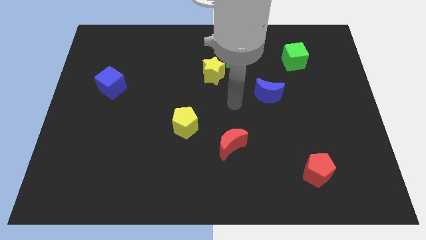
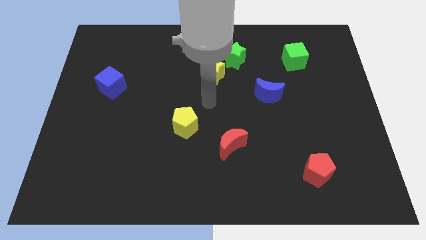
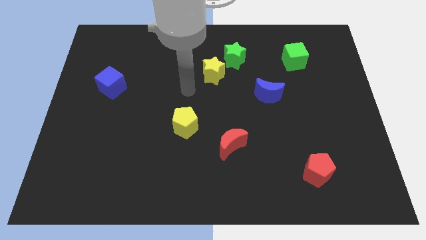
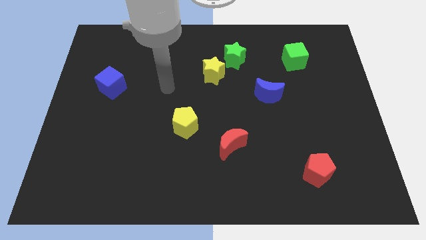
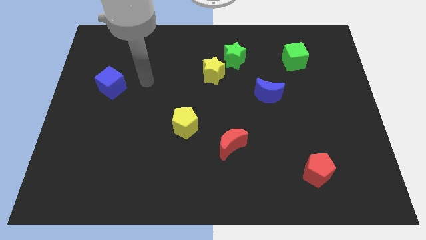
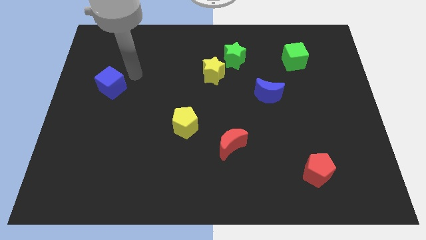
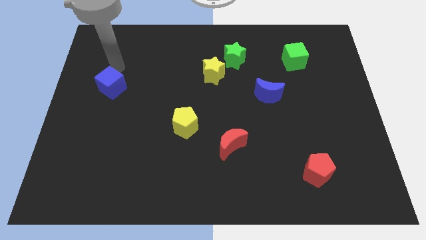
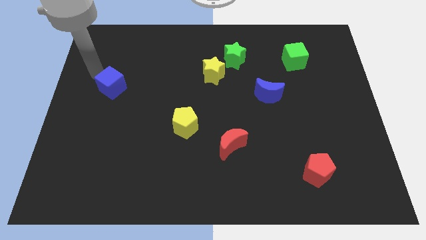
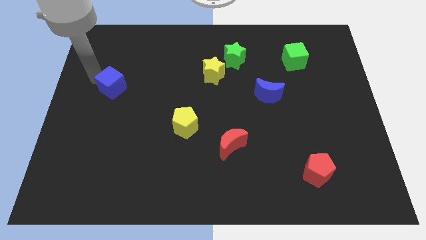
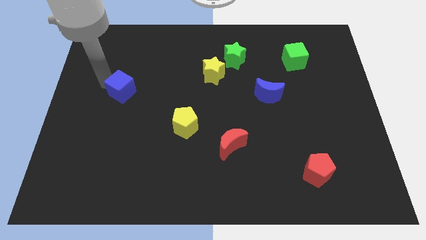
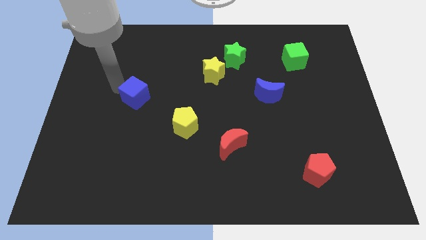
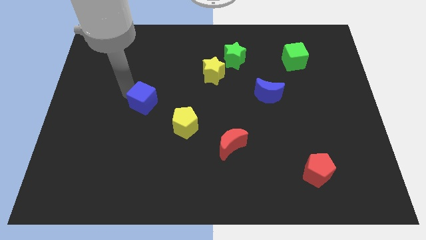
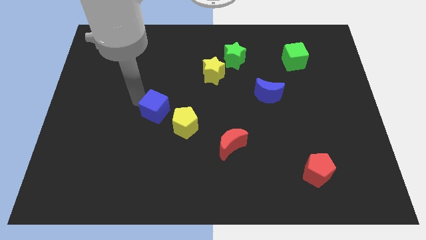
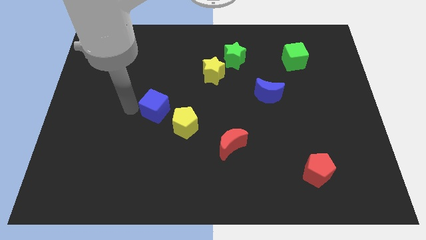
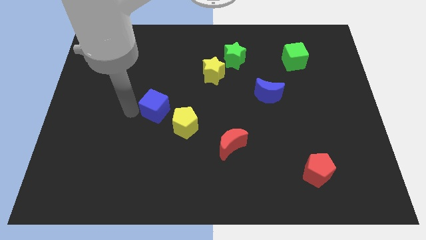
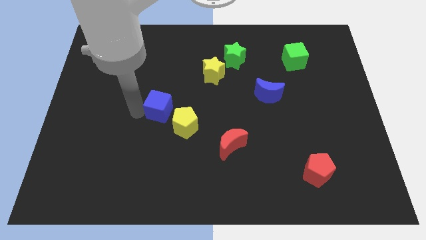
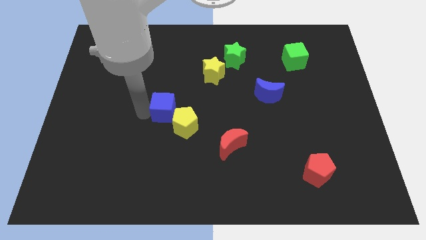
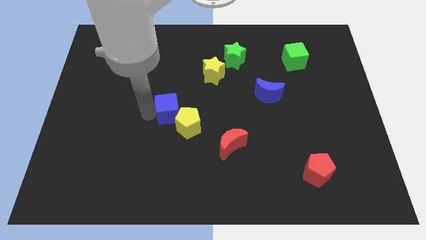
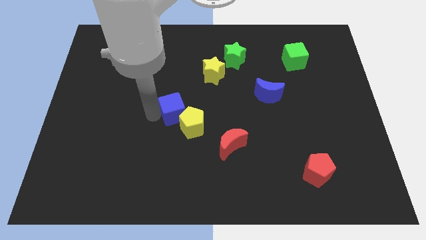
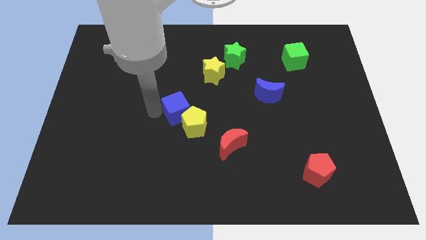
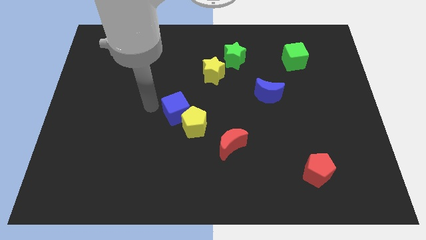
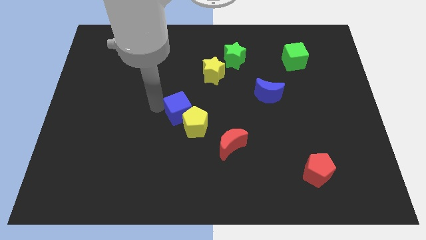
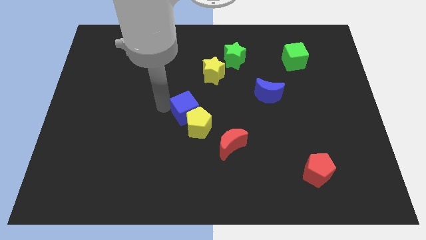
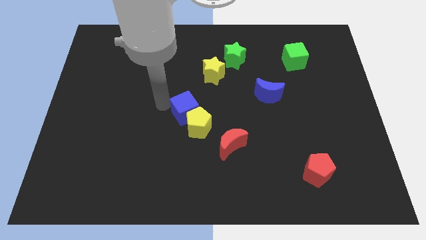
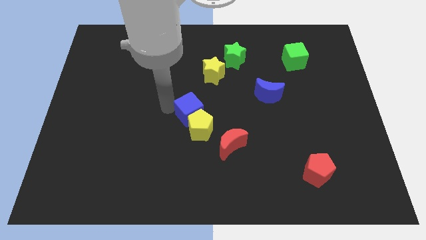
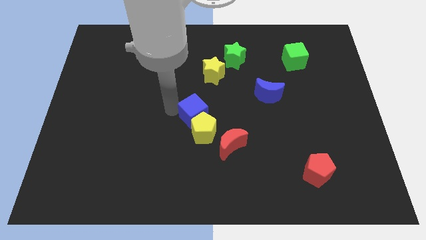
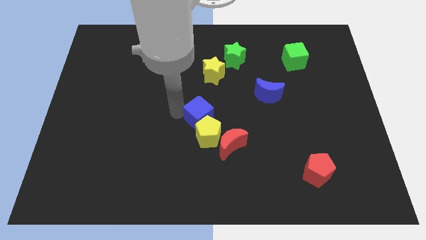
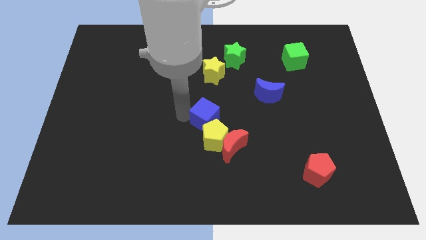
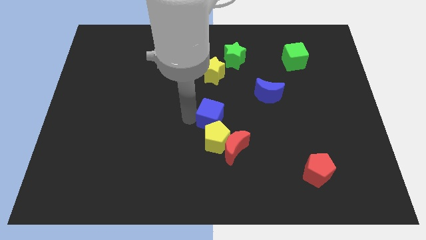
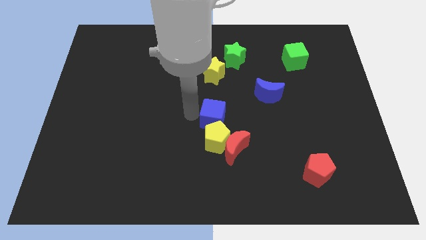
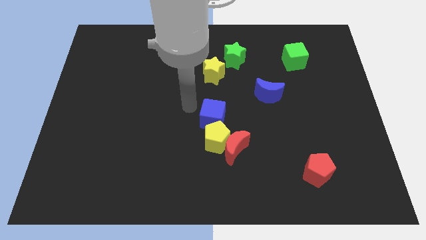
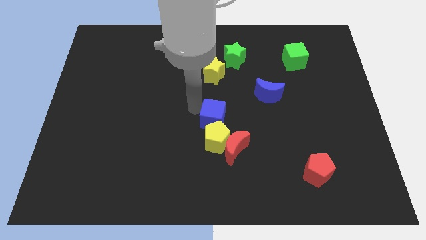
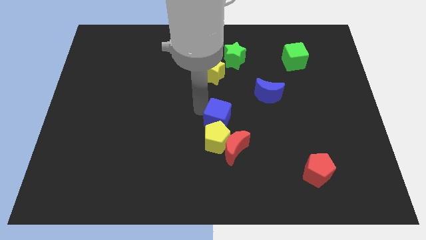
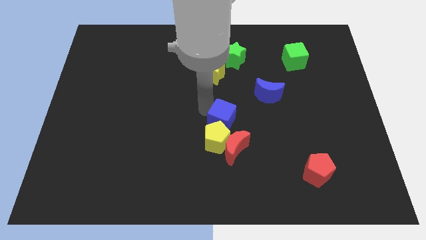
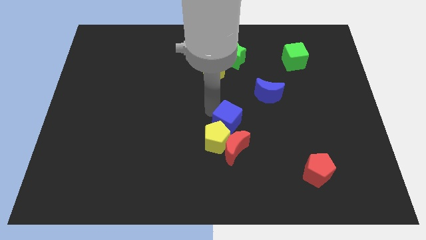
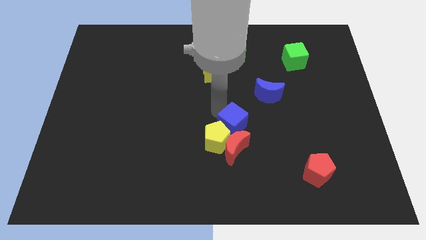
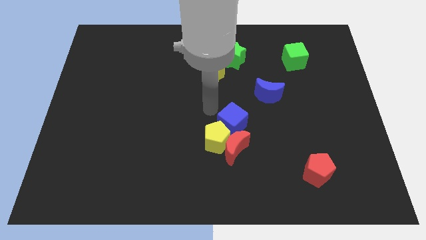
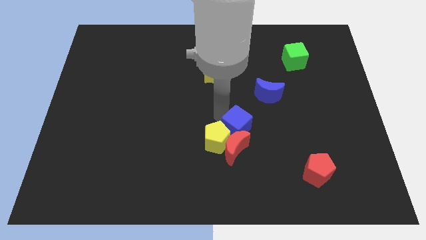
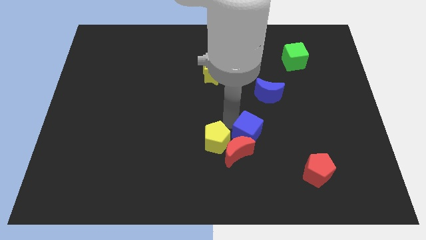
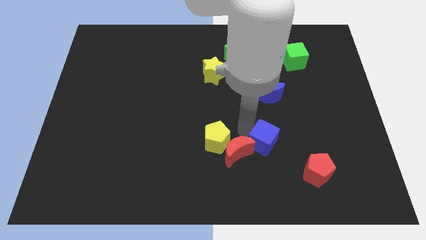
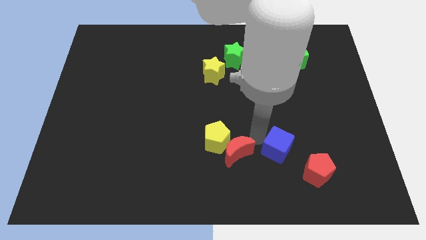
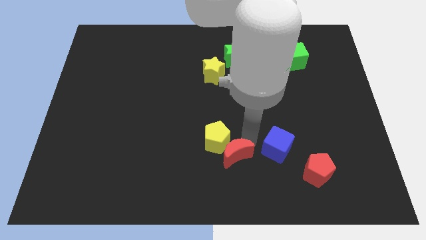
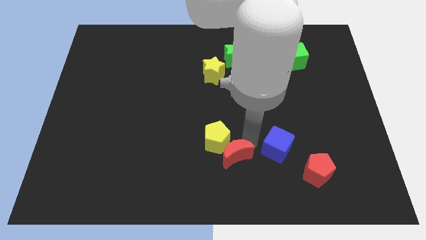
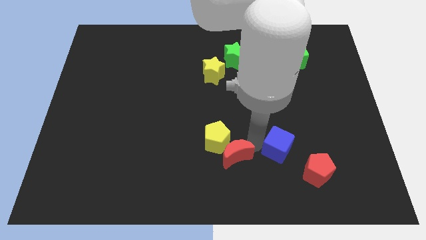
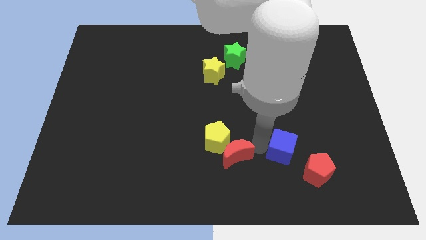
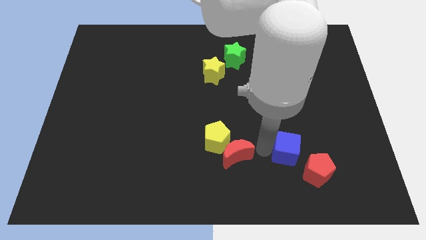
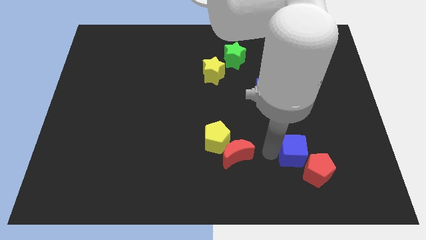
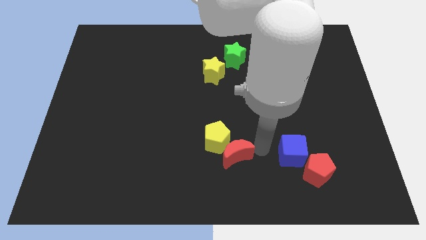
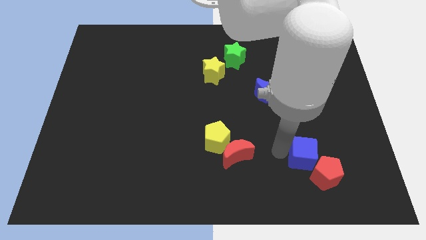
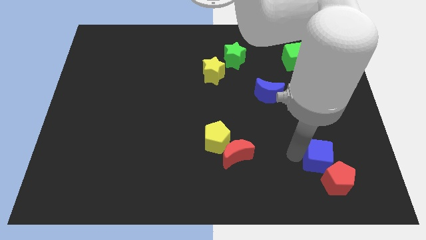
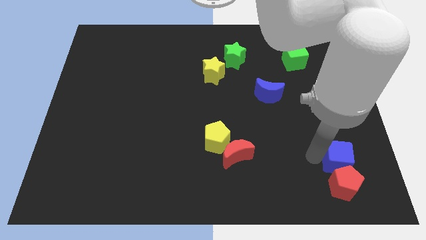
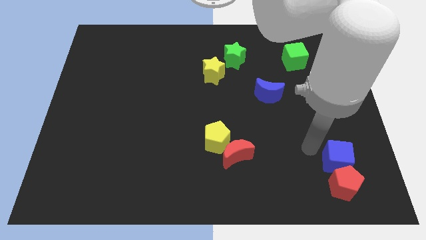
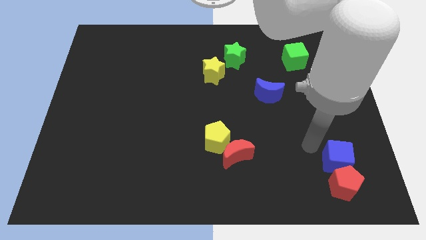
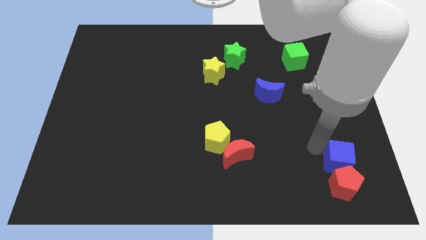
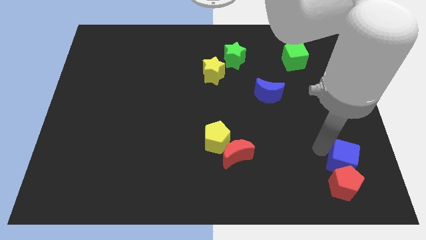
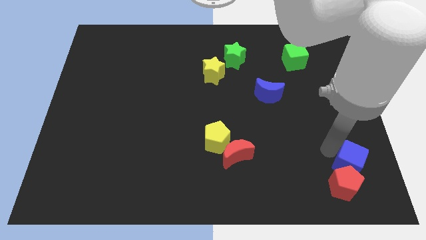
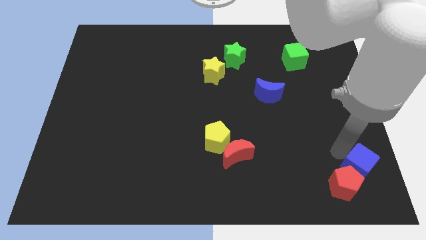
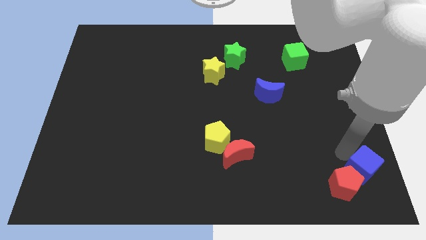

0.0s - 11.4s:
slide the blue cube to the bottom right of the board
